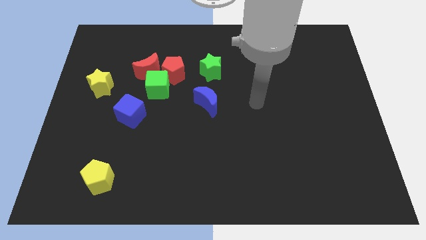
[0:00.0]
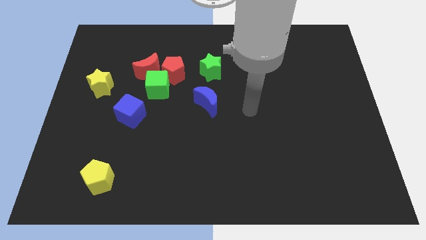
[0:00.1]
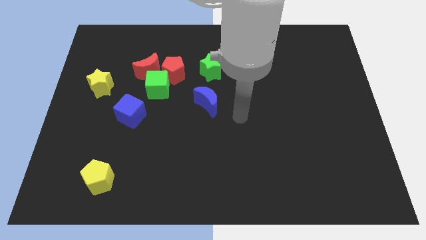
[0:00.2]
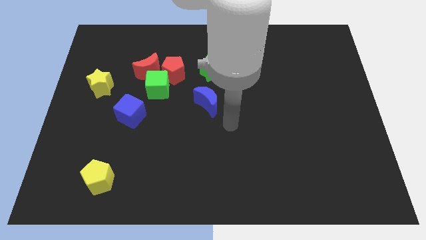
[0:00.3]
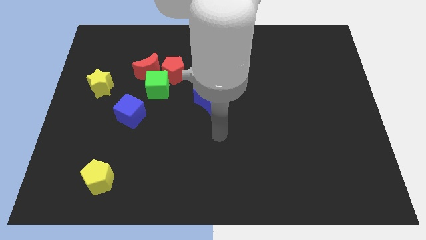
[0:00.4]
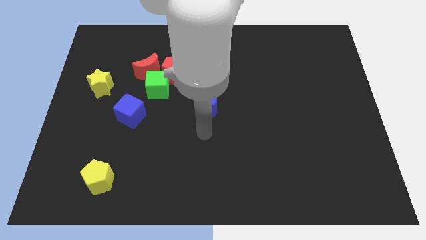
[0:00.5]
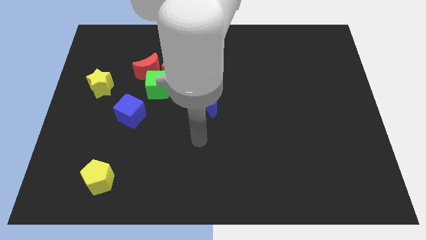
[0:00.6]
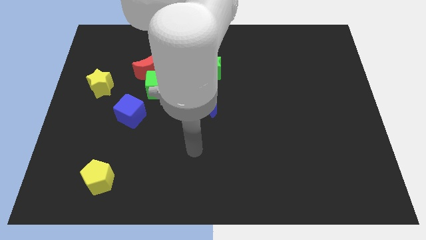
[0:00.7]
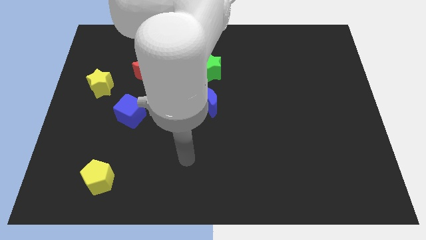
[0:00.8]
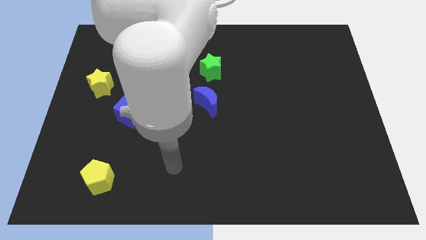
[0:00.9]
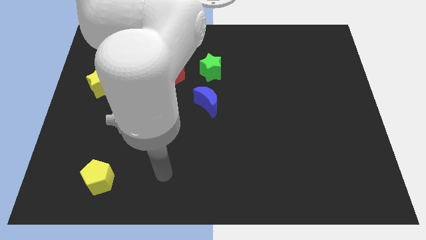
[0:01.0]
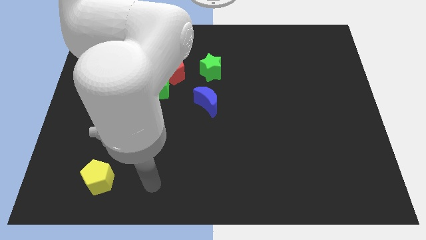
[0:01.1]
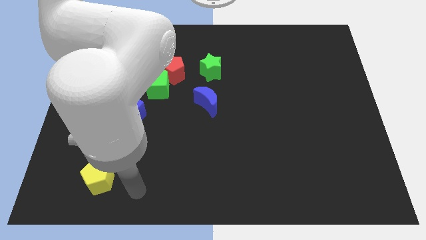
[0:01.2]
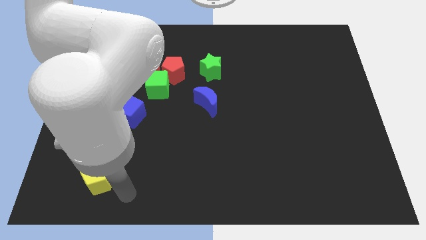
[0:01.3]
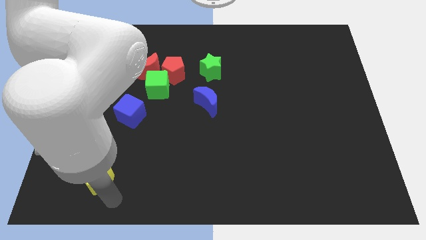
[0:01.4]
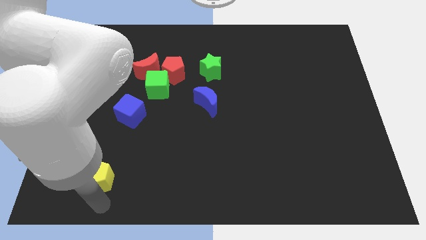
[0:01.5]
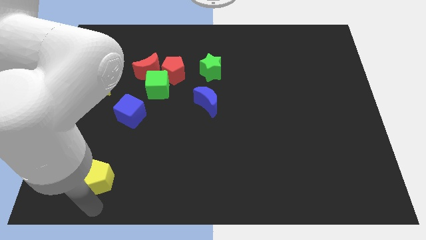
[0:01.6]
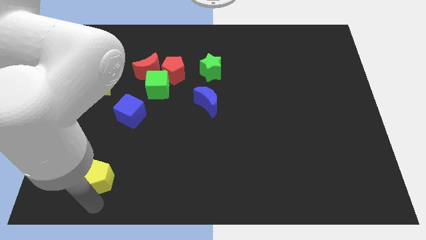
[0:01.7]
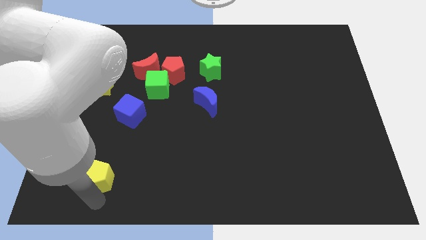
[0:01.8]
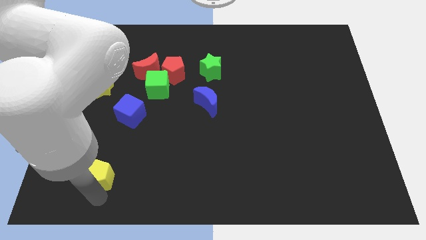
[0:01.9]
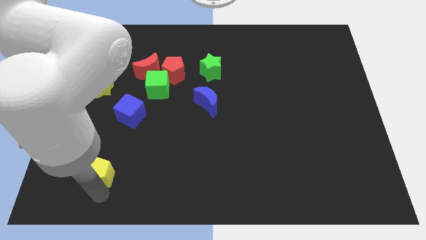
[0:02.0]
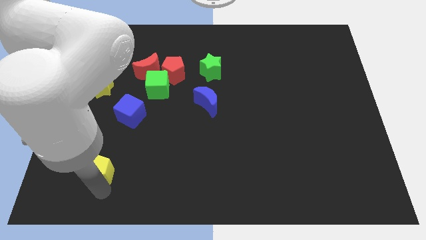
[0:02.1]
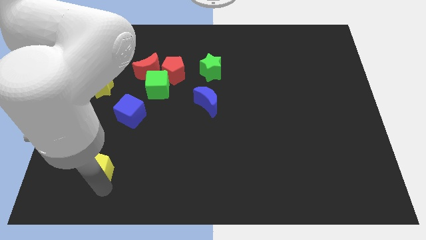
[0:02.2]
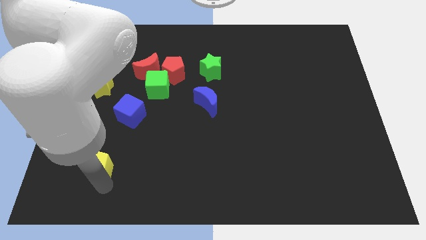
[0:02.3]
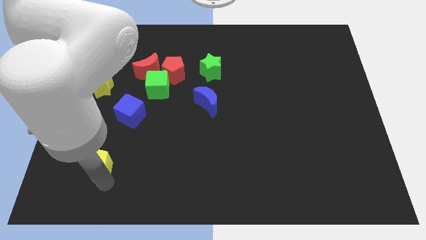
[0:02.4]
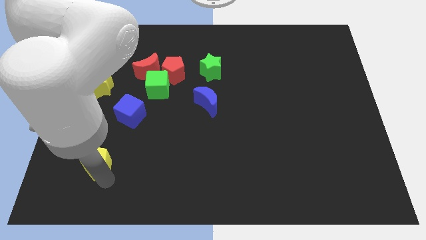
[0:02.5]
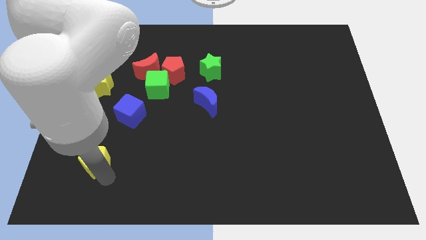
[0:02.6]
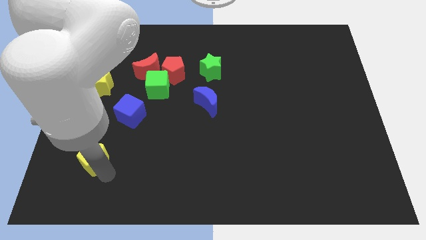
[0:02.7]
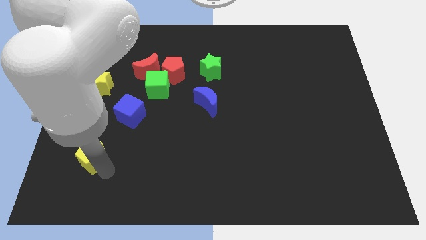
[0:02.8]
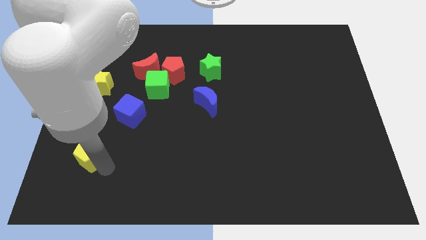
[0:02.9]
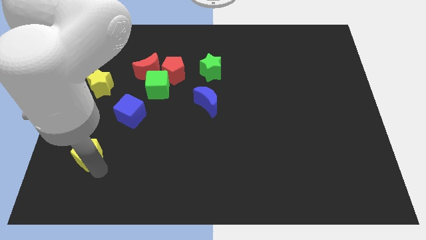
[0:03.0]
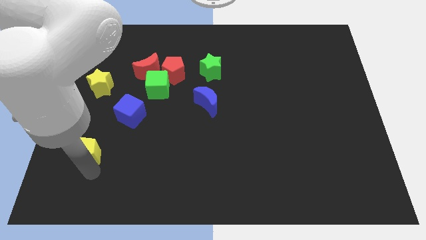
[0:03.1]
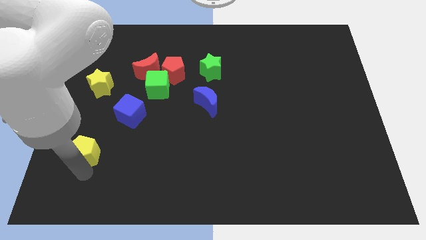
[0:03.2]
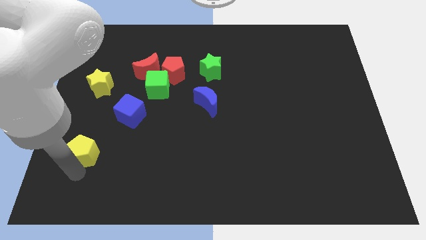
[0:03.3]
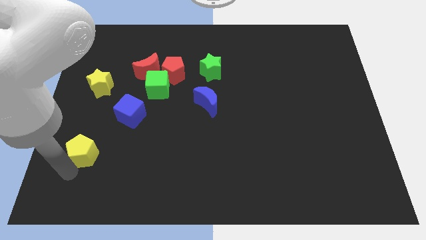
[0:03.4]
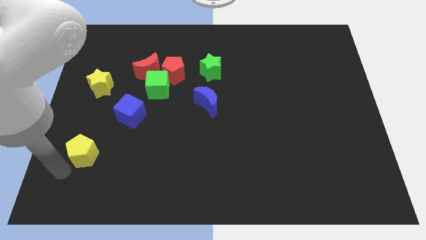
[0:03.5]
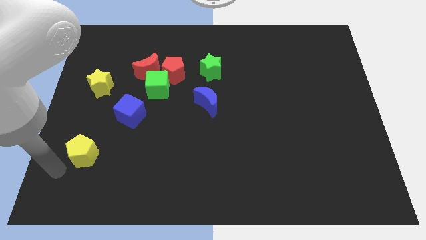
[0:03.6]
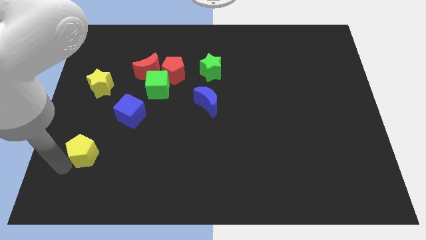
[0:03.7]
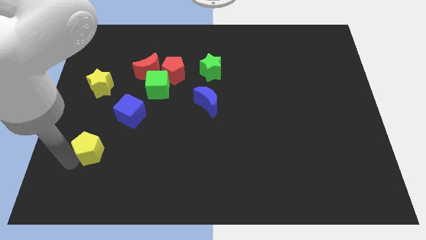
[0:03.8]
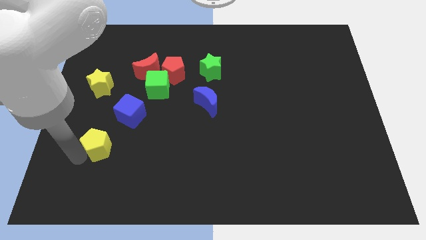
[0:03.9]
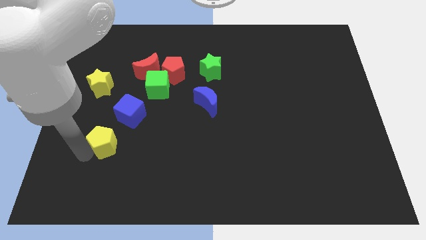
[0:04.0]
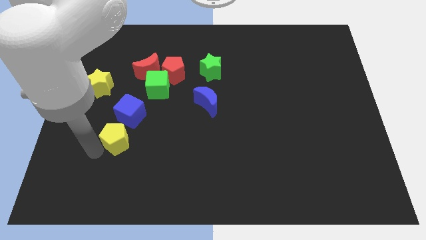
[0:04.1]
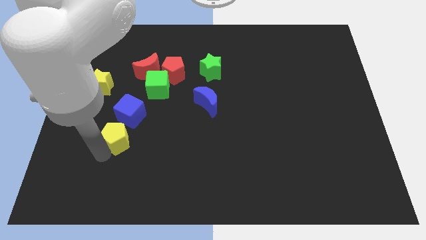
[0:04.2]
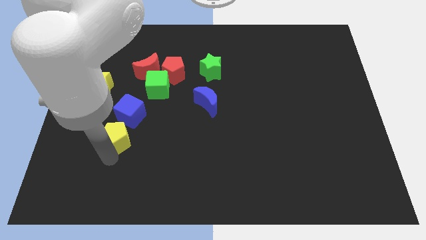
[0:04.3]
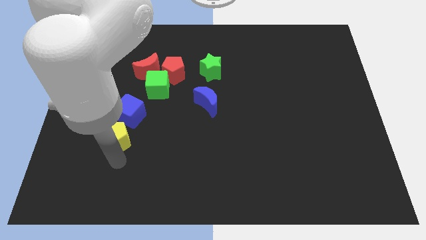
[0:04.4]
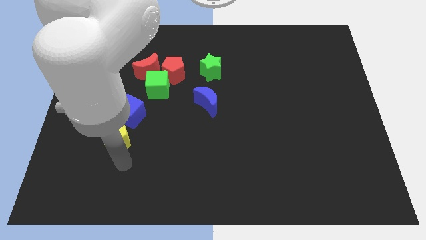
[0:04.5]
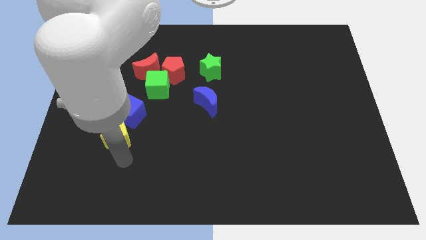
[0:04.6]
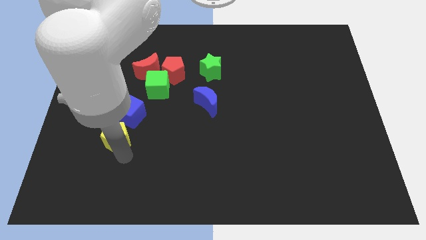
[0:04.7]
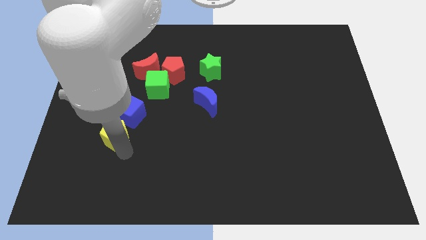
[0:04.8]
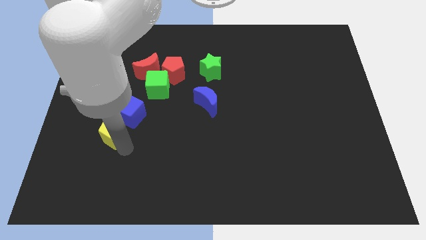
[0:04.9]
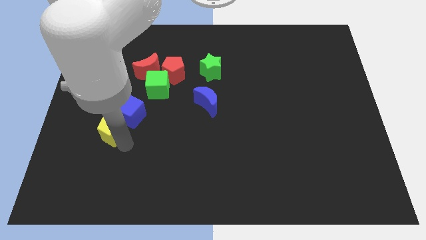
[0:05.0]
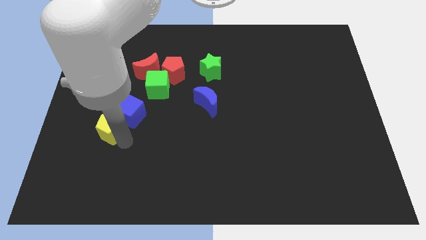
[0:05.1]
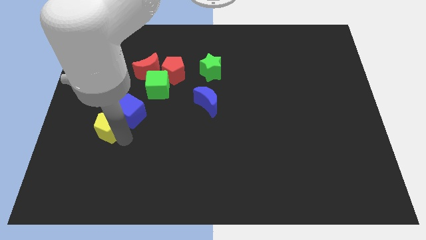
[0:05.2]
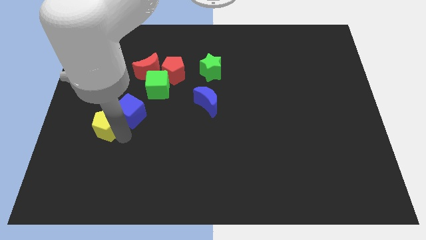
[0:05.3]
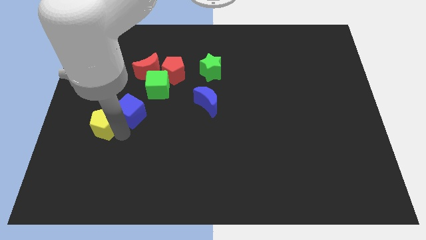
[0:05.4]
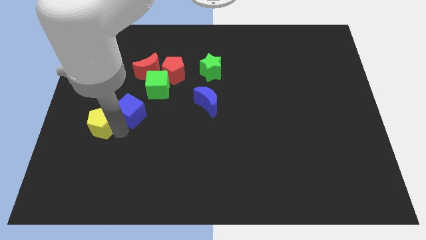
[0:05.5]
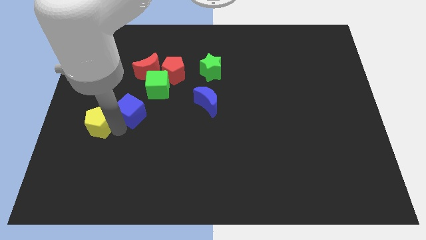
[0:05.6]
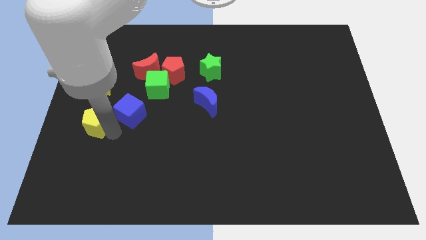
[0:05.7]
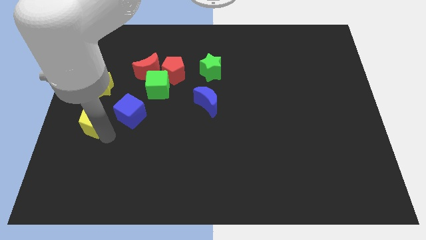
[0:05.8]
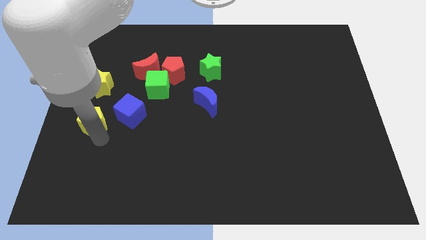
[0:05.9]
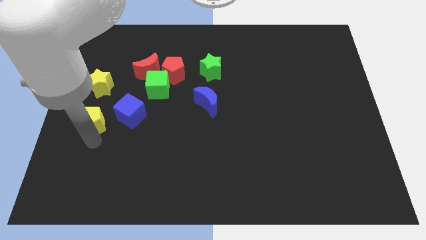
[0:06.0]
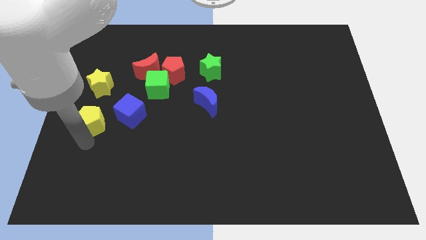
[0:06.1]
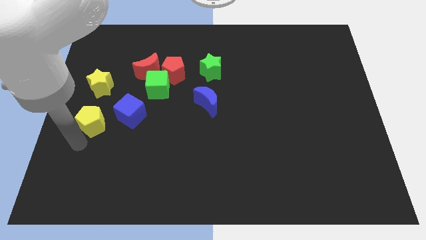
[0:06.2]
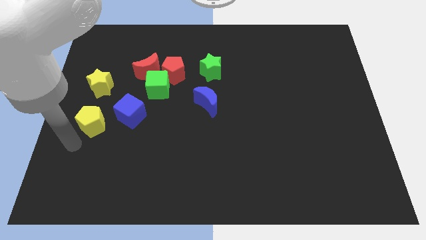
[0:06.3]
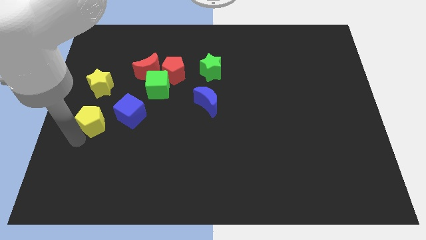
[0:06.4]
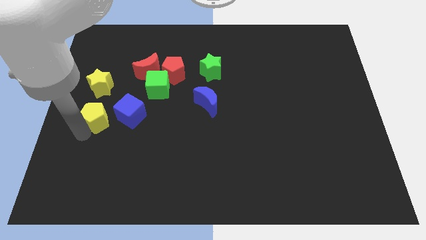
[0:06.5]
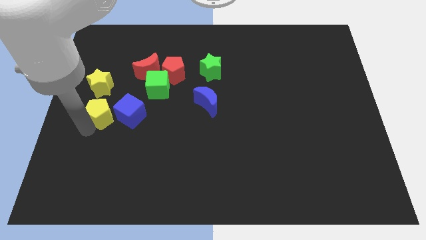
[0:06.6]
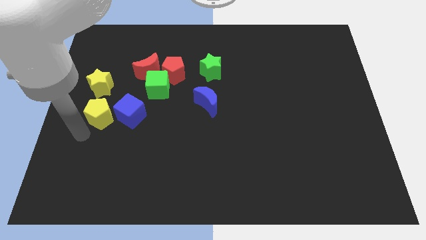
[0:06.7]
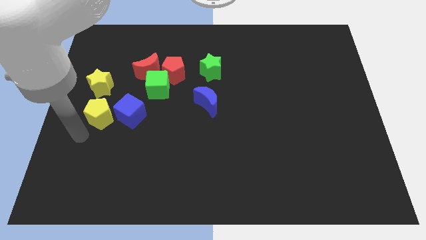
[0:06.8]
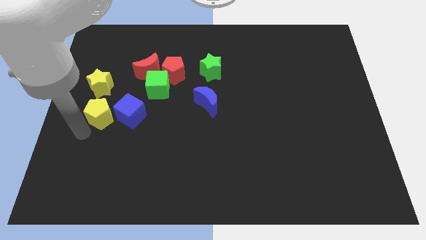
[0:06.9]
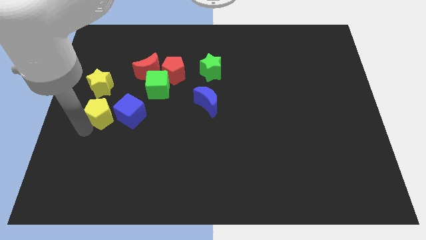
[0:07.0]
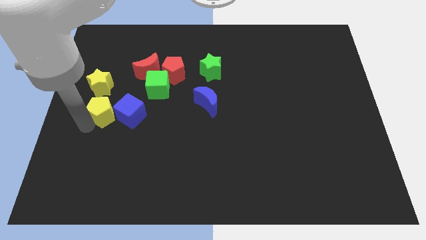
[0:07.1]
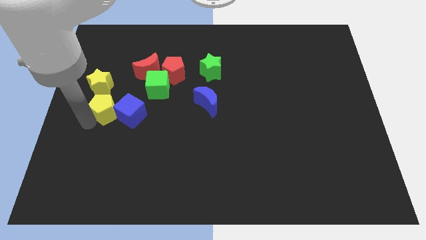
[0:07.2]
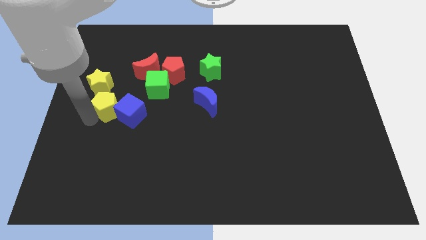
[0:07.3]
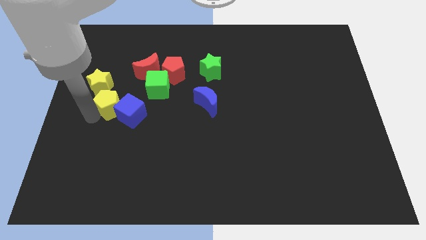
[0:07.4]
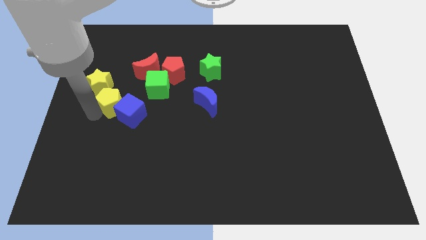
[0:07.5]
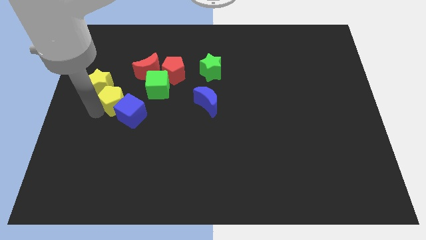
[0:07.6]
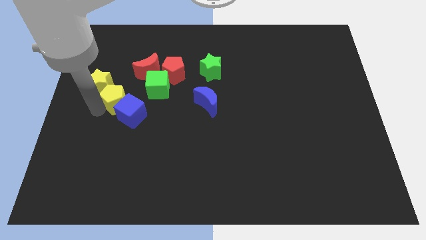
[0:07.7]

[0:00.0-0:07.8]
push the yellow pentagon to the top of the blue cube
